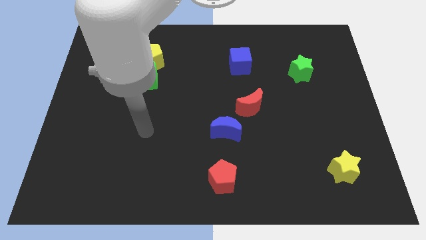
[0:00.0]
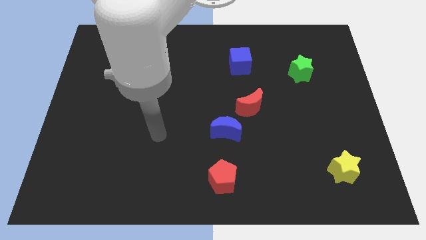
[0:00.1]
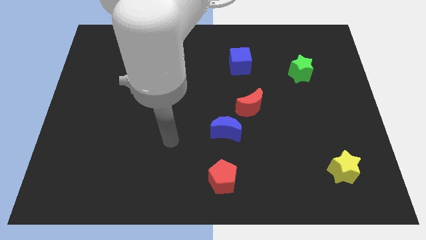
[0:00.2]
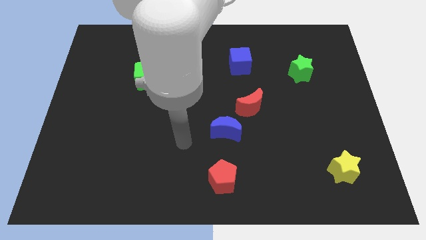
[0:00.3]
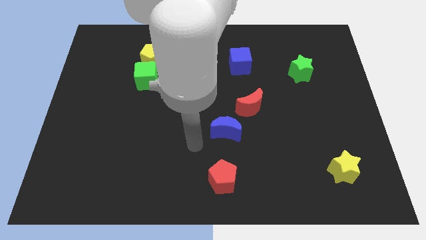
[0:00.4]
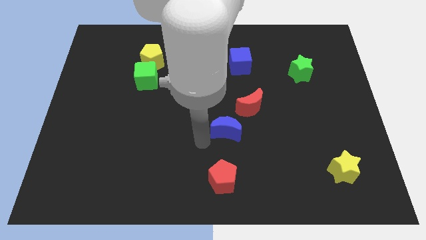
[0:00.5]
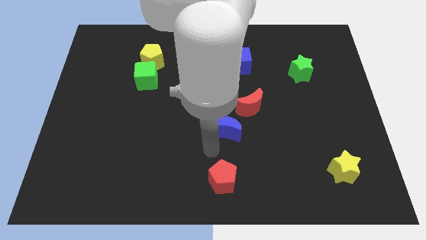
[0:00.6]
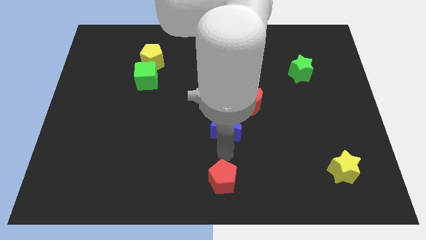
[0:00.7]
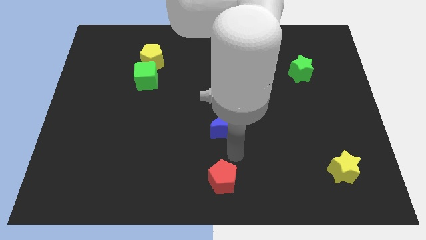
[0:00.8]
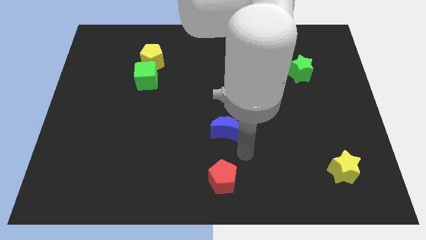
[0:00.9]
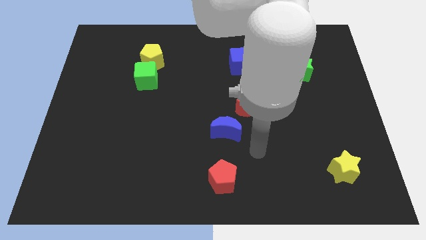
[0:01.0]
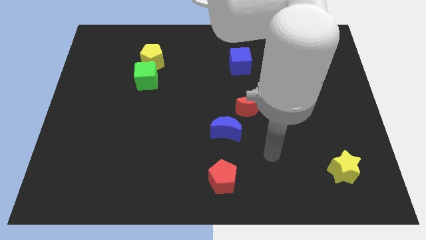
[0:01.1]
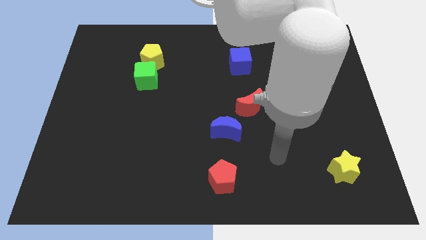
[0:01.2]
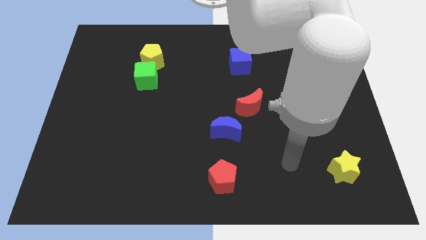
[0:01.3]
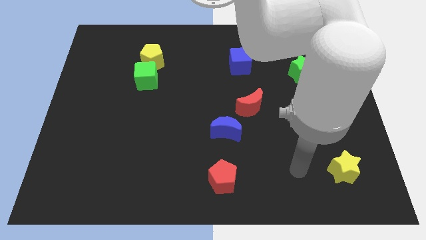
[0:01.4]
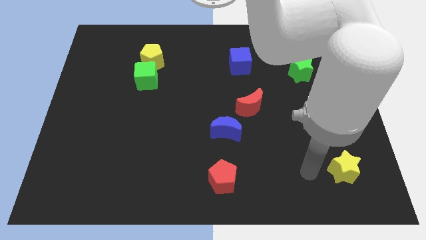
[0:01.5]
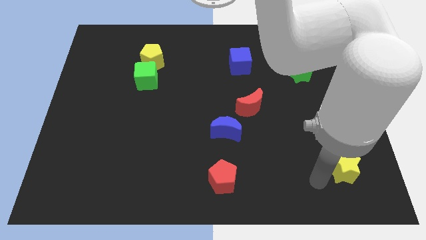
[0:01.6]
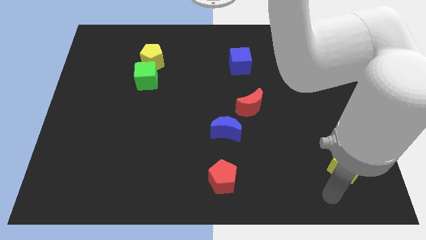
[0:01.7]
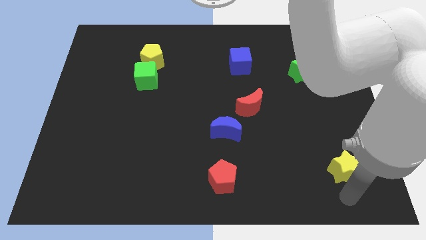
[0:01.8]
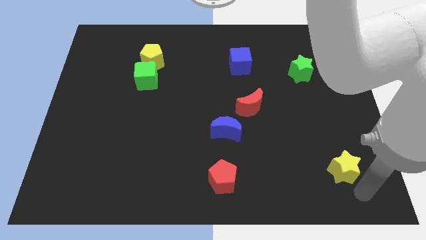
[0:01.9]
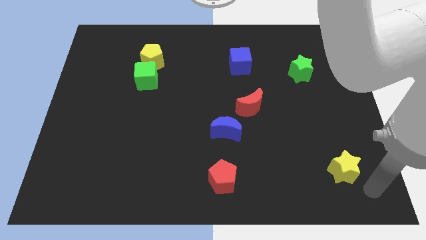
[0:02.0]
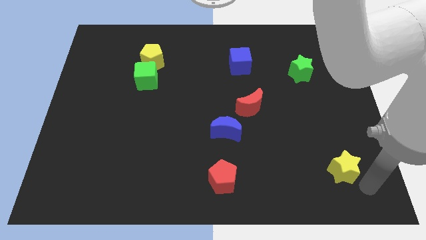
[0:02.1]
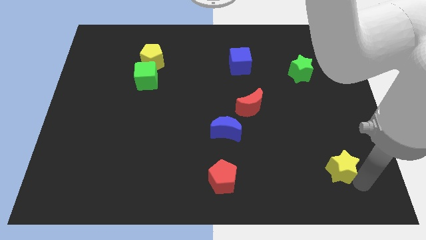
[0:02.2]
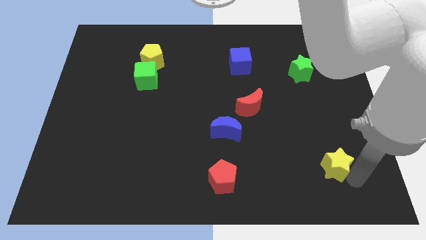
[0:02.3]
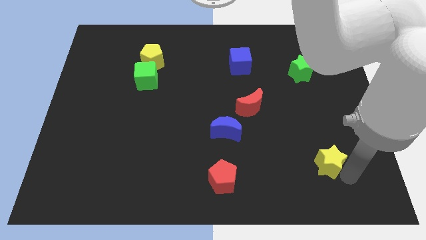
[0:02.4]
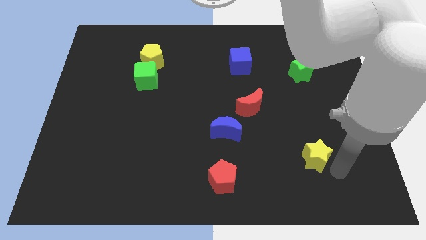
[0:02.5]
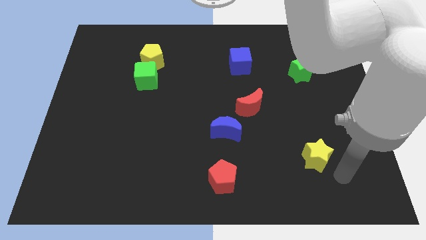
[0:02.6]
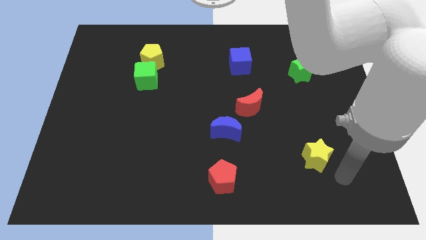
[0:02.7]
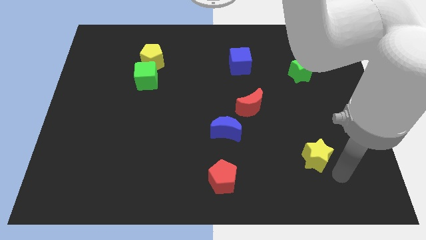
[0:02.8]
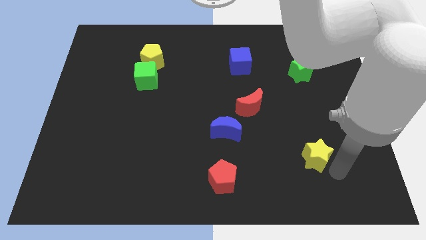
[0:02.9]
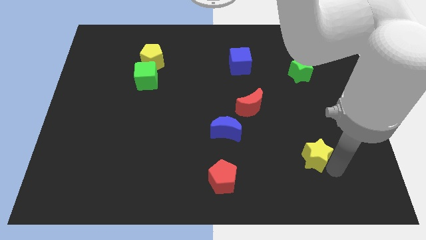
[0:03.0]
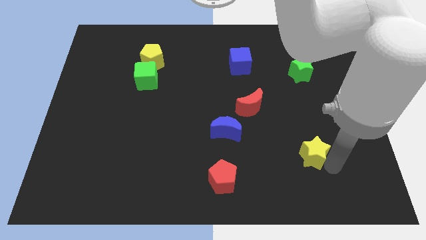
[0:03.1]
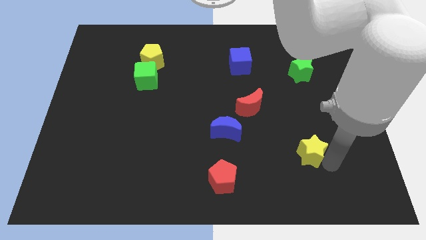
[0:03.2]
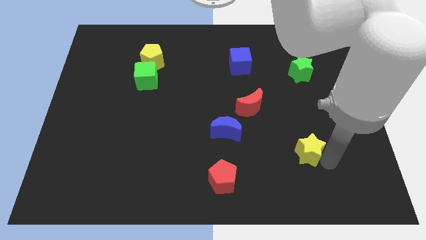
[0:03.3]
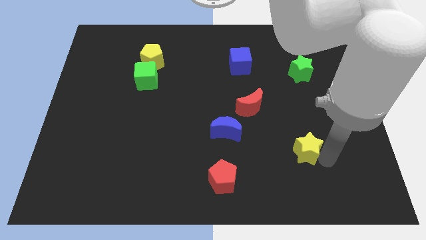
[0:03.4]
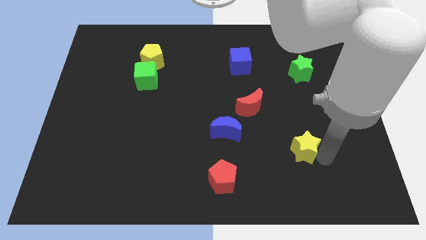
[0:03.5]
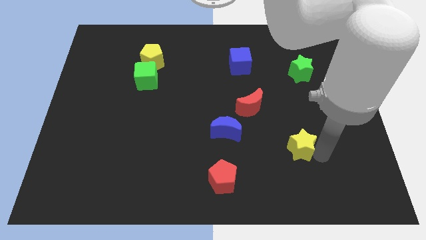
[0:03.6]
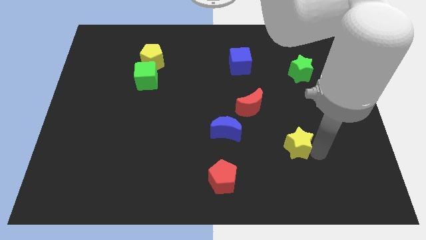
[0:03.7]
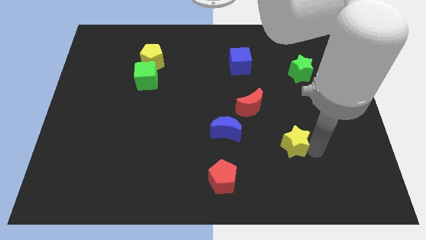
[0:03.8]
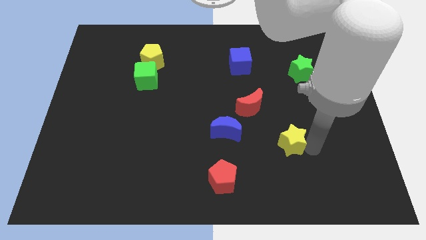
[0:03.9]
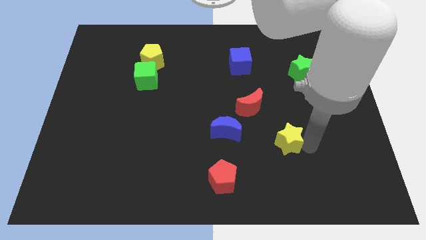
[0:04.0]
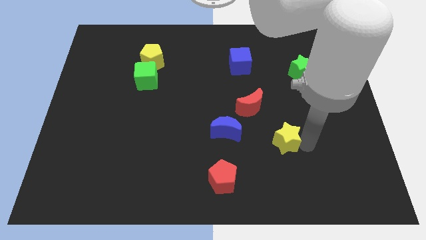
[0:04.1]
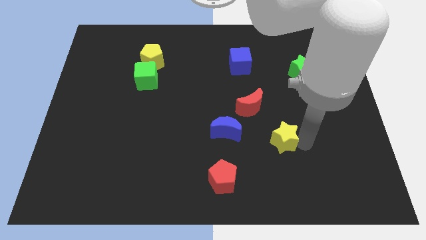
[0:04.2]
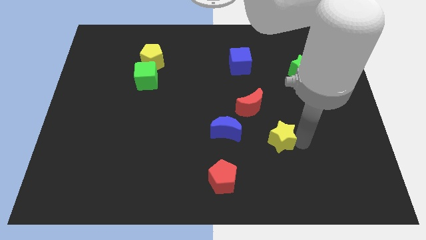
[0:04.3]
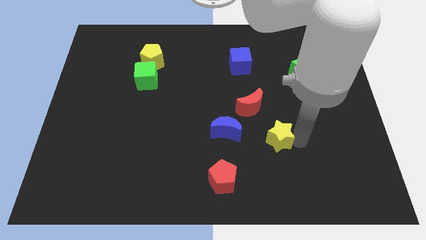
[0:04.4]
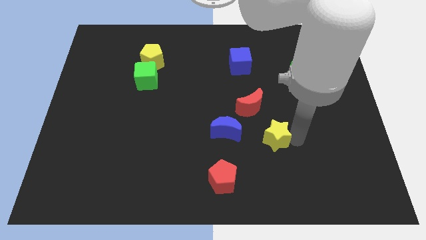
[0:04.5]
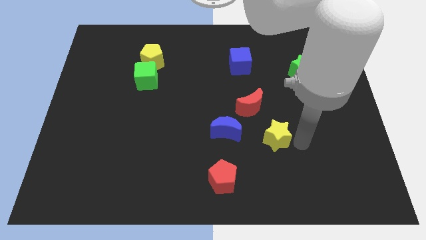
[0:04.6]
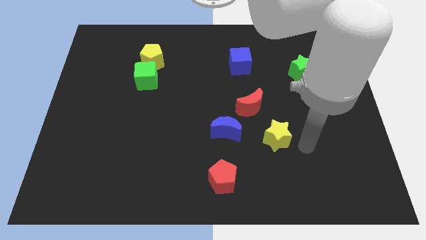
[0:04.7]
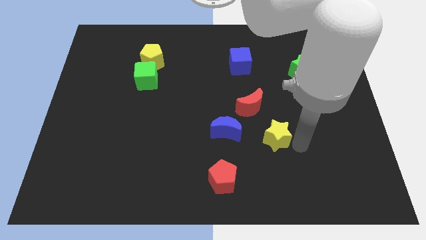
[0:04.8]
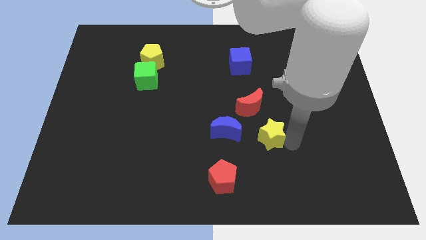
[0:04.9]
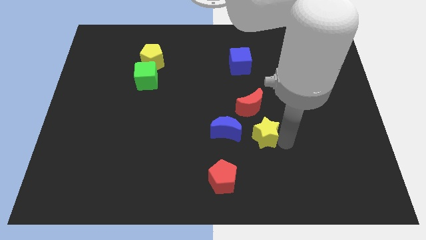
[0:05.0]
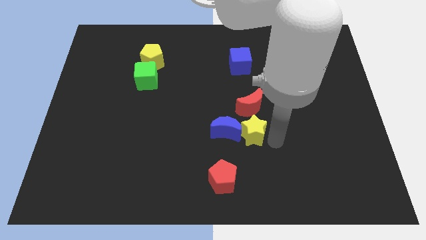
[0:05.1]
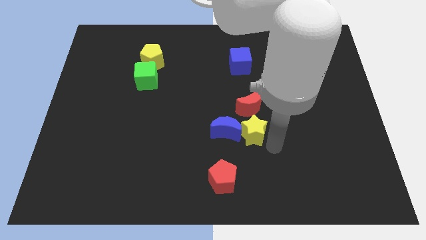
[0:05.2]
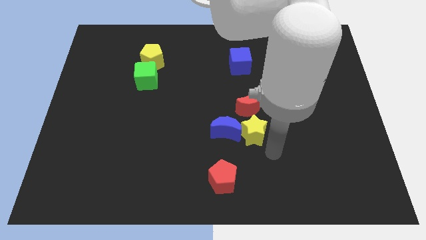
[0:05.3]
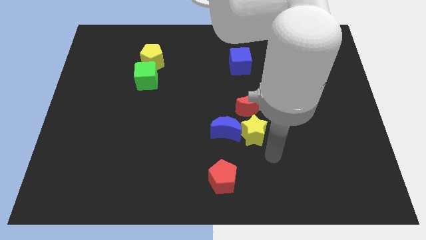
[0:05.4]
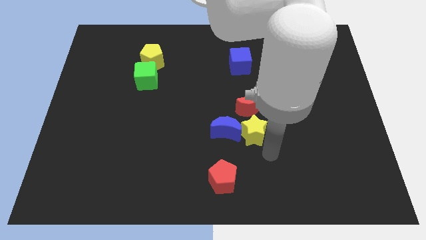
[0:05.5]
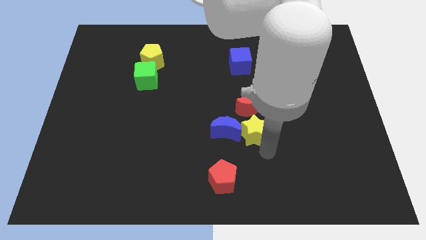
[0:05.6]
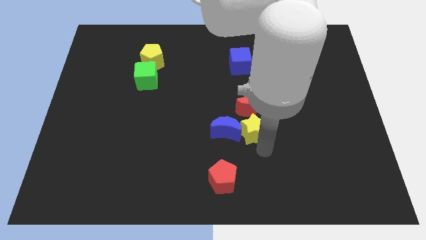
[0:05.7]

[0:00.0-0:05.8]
put the yellow star to the middle of the board

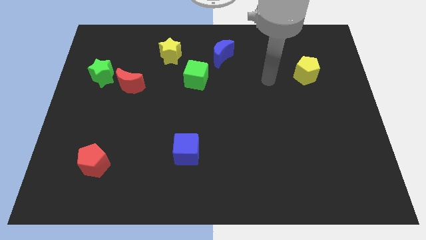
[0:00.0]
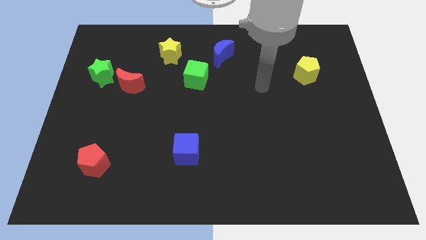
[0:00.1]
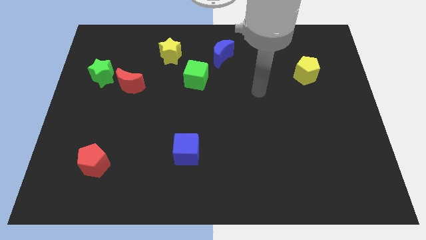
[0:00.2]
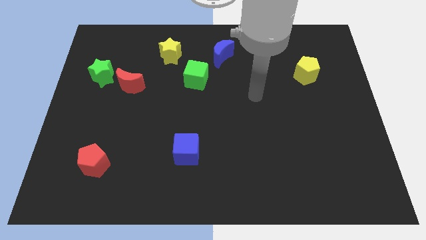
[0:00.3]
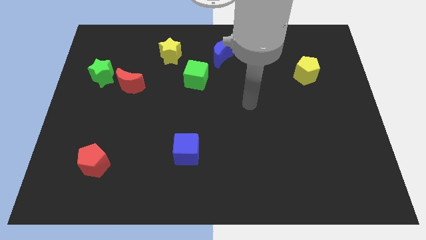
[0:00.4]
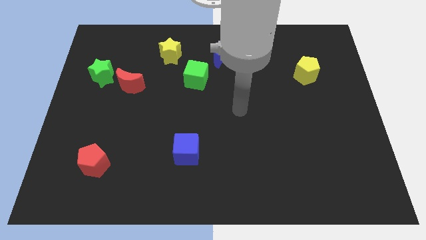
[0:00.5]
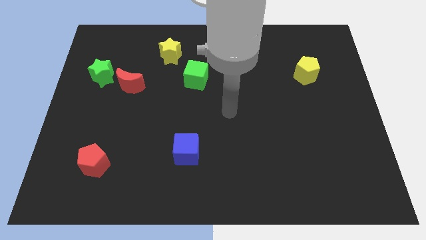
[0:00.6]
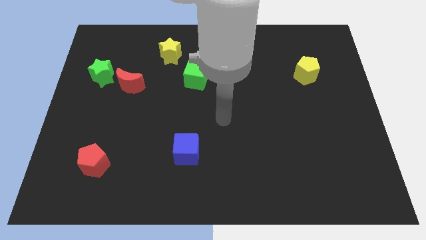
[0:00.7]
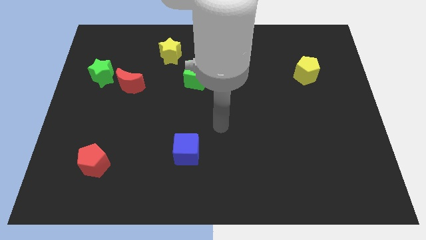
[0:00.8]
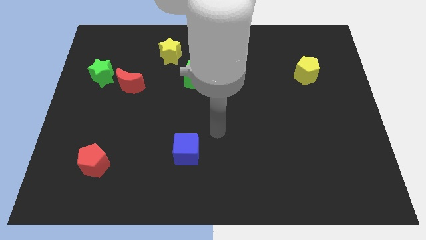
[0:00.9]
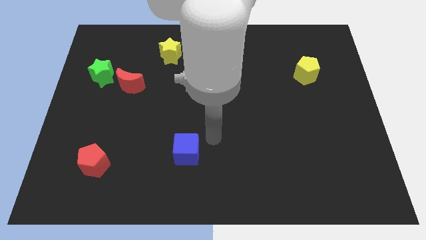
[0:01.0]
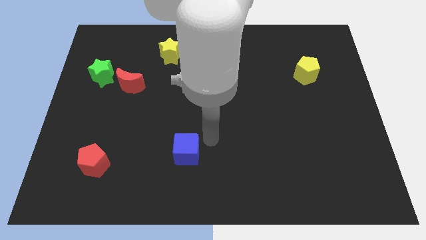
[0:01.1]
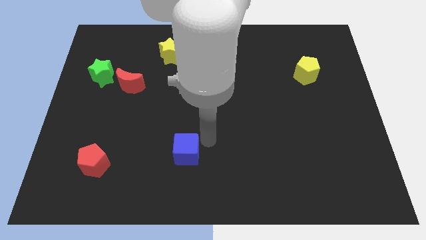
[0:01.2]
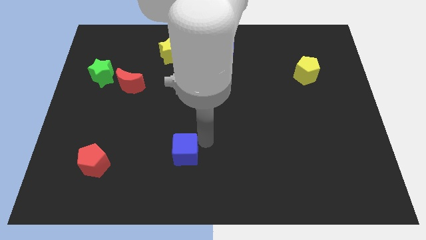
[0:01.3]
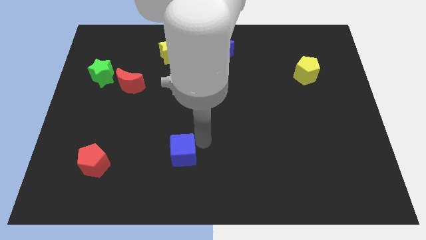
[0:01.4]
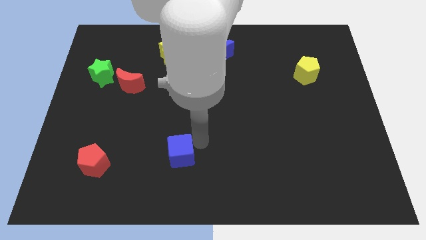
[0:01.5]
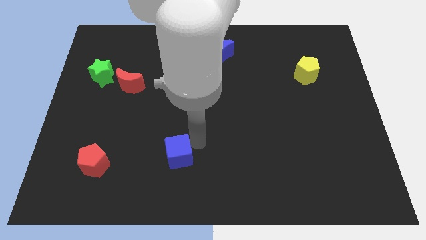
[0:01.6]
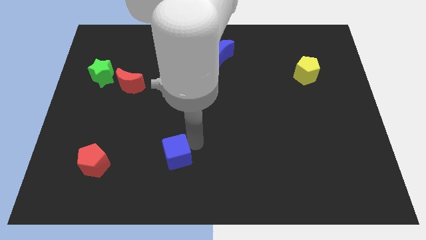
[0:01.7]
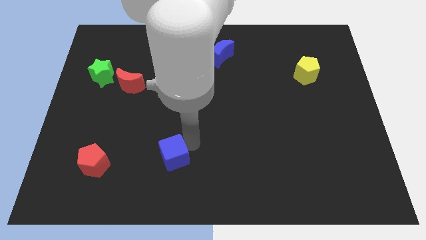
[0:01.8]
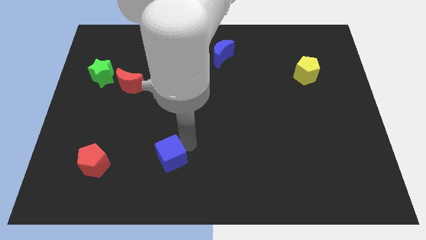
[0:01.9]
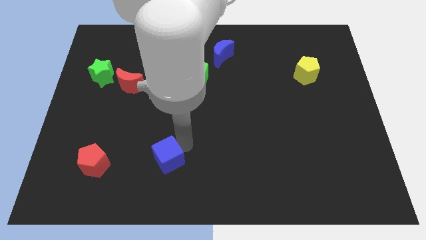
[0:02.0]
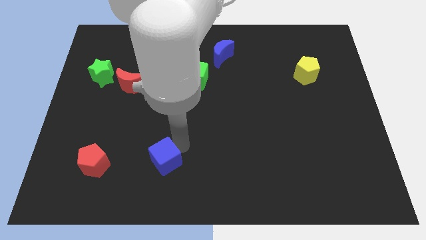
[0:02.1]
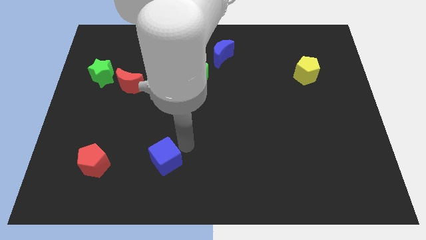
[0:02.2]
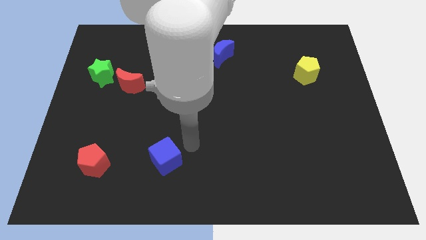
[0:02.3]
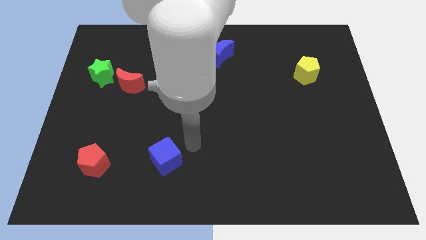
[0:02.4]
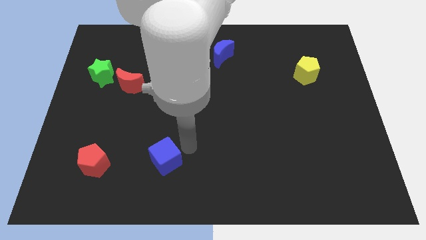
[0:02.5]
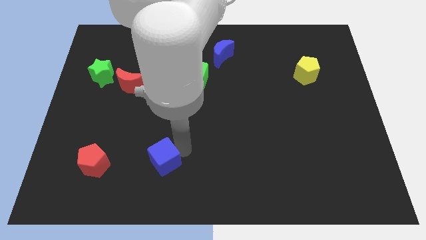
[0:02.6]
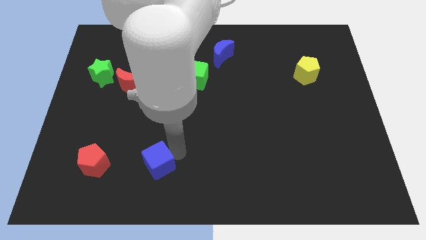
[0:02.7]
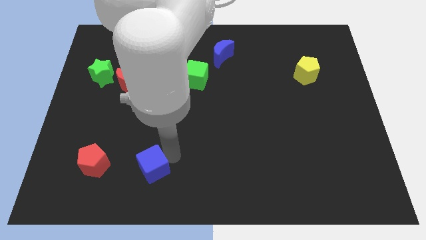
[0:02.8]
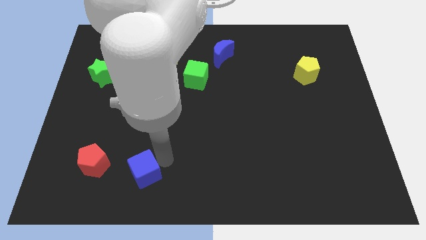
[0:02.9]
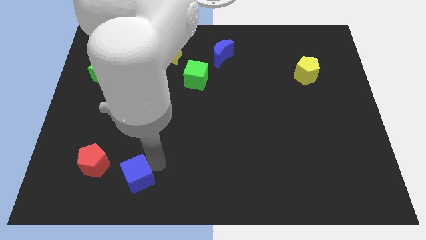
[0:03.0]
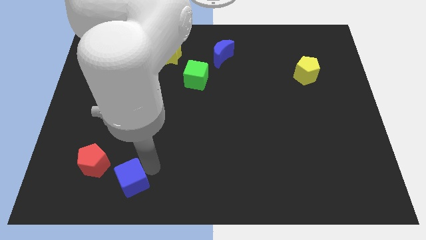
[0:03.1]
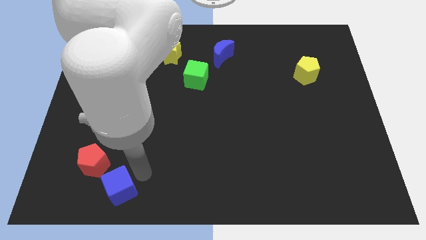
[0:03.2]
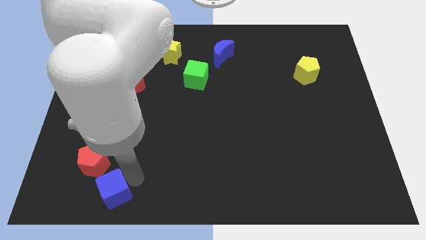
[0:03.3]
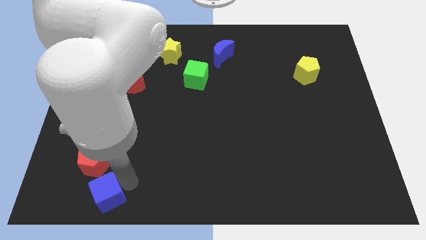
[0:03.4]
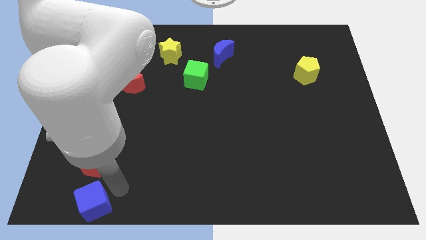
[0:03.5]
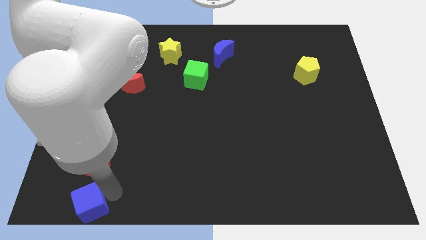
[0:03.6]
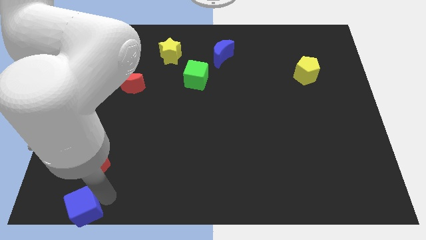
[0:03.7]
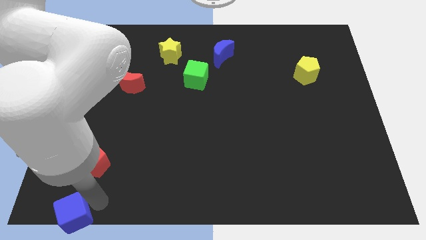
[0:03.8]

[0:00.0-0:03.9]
slide the blue cube to the lower left corner
